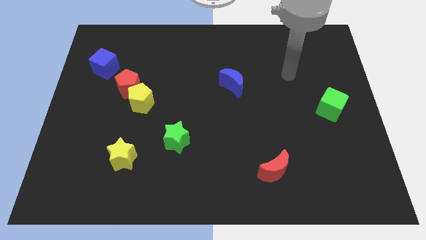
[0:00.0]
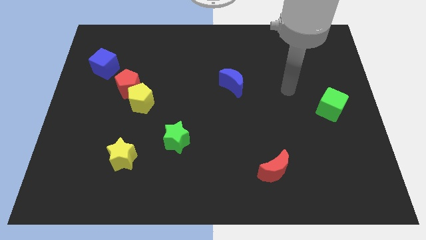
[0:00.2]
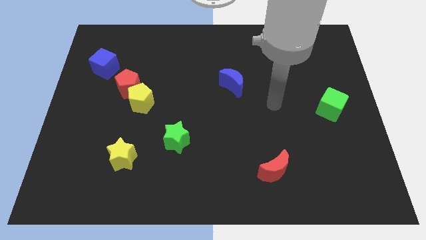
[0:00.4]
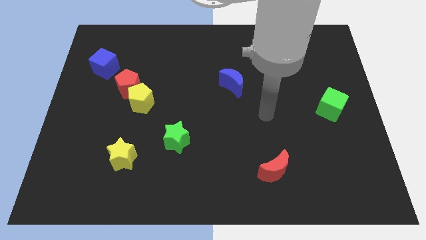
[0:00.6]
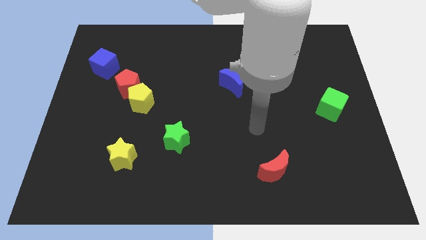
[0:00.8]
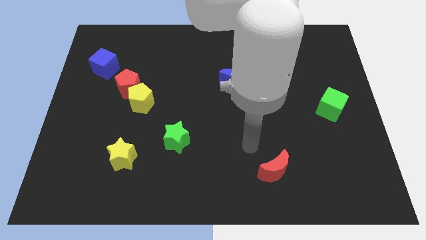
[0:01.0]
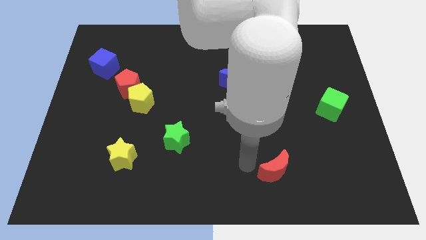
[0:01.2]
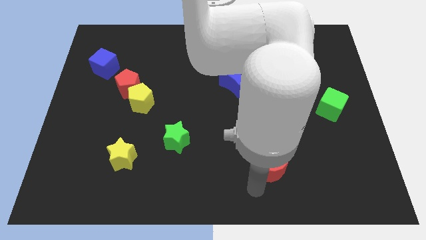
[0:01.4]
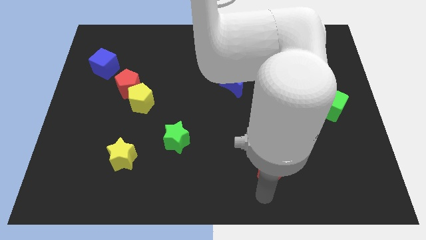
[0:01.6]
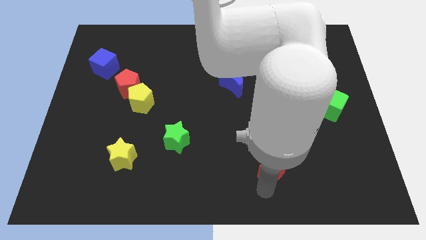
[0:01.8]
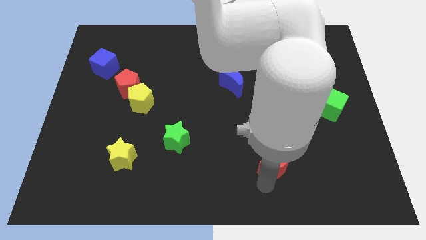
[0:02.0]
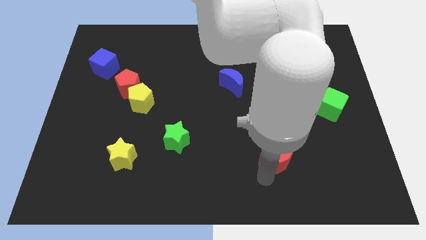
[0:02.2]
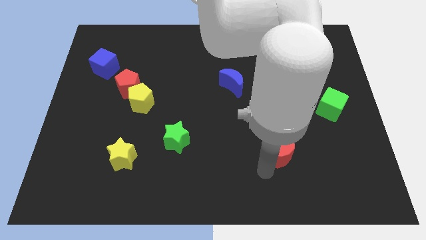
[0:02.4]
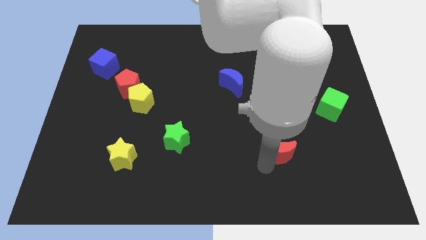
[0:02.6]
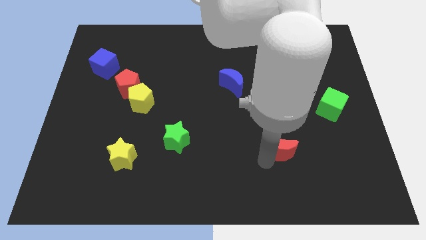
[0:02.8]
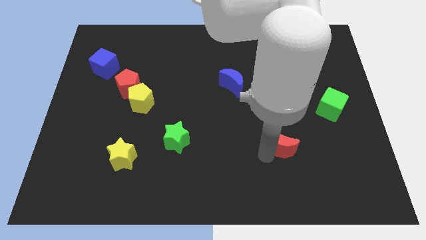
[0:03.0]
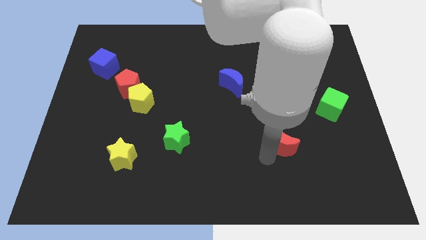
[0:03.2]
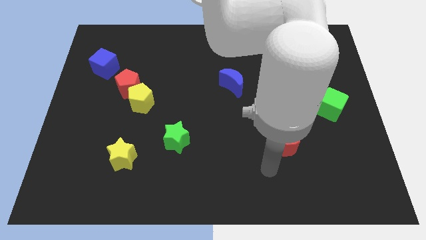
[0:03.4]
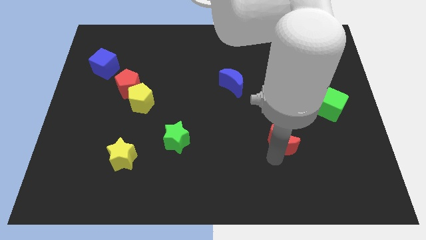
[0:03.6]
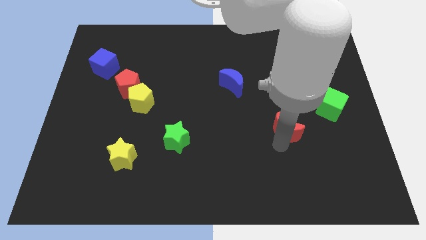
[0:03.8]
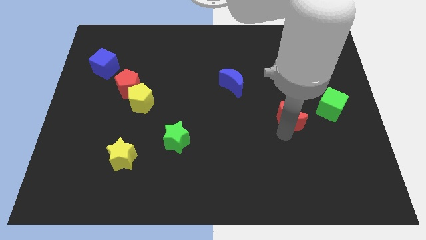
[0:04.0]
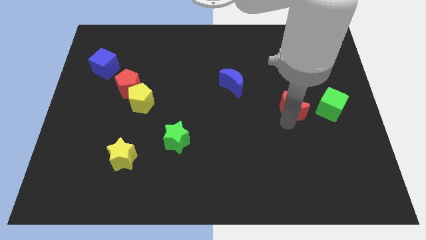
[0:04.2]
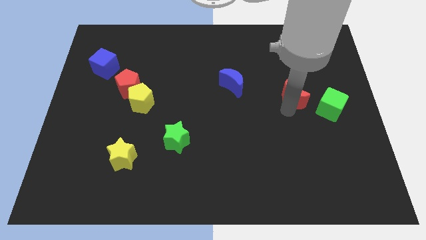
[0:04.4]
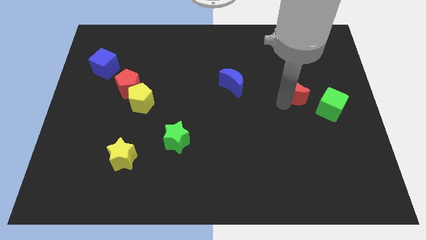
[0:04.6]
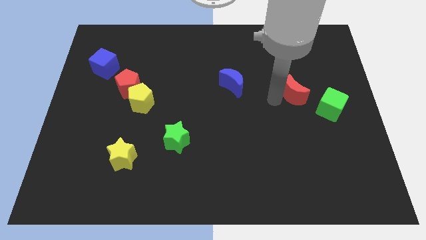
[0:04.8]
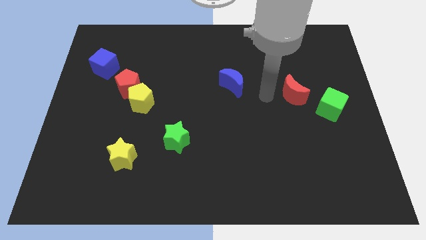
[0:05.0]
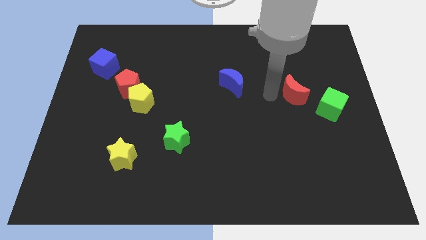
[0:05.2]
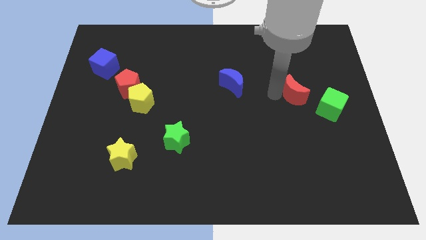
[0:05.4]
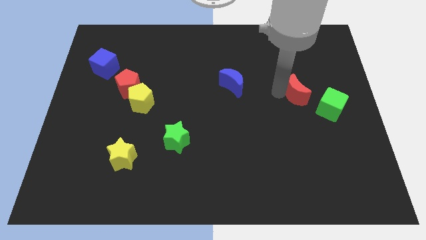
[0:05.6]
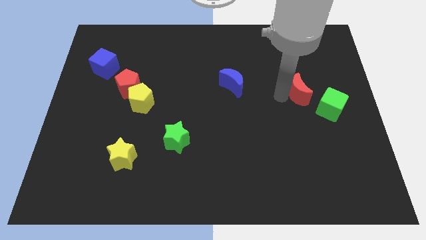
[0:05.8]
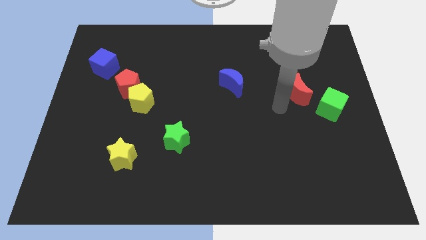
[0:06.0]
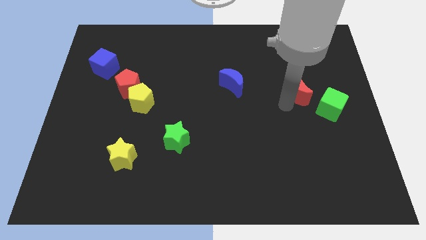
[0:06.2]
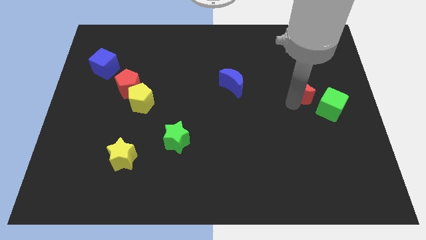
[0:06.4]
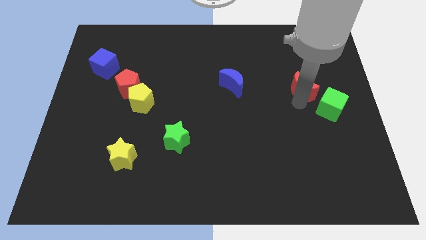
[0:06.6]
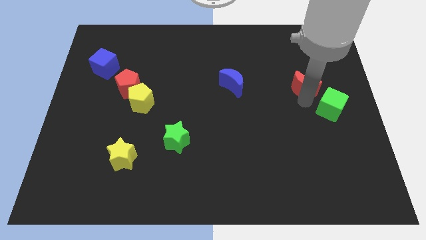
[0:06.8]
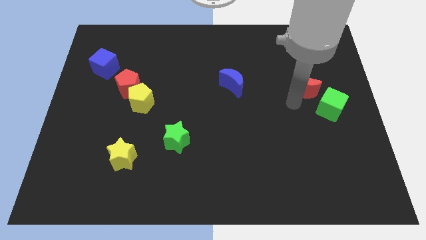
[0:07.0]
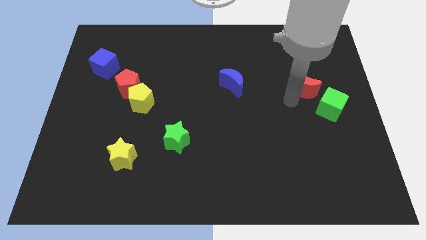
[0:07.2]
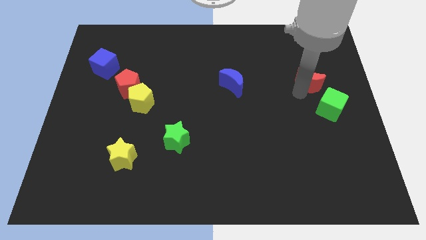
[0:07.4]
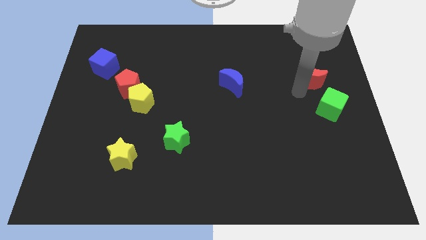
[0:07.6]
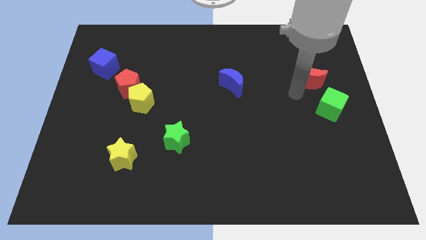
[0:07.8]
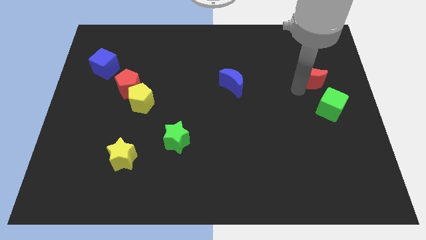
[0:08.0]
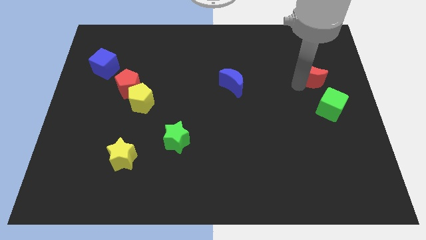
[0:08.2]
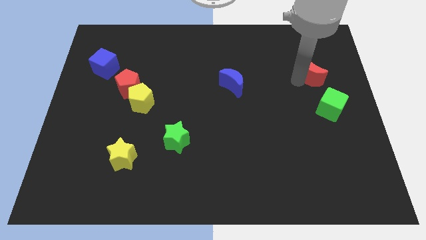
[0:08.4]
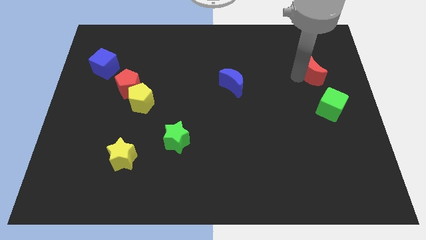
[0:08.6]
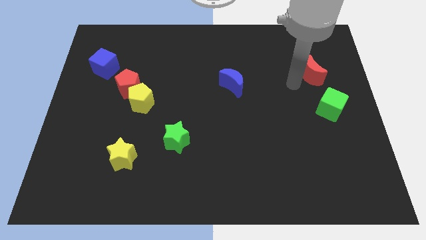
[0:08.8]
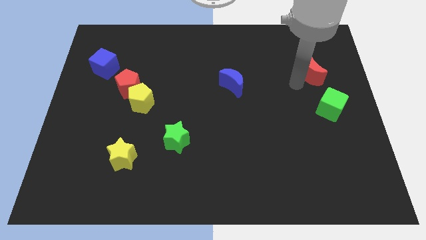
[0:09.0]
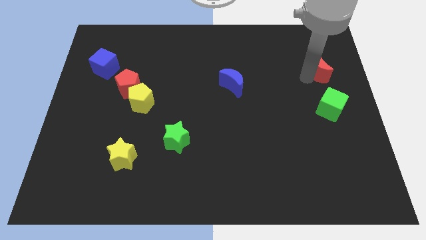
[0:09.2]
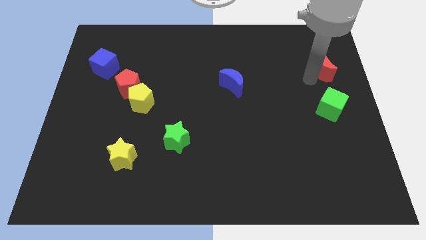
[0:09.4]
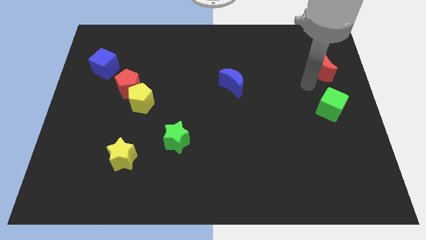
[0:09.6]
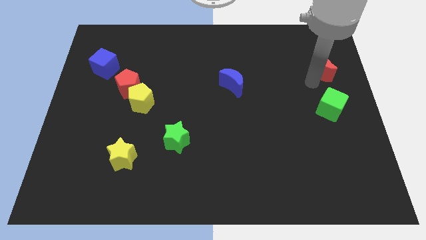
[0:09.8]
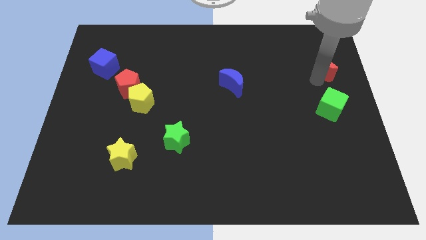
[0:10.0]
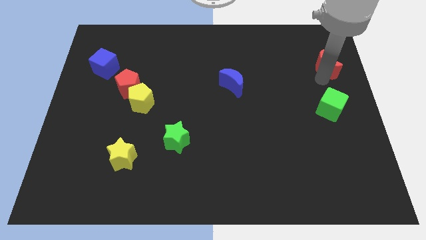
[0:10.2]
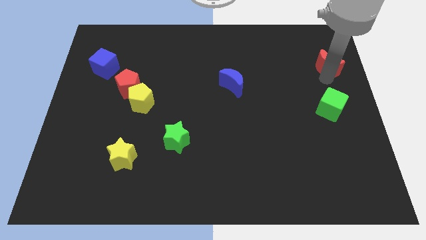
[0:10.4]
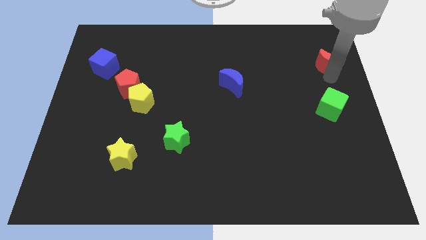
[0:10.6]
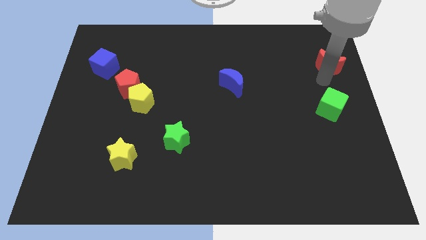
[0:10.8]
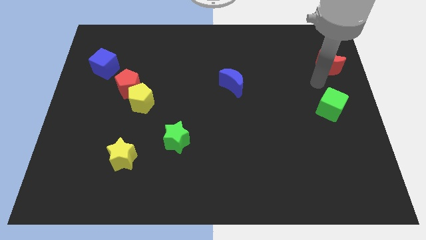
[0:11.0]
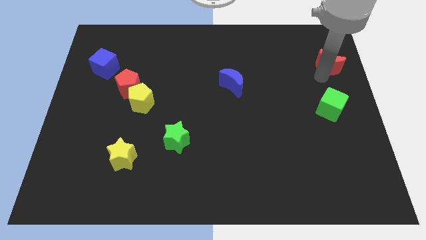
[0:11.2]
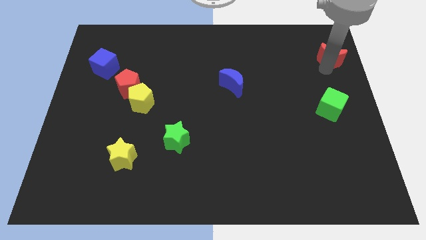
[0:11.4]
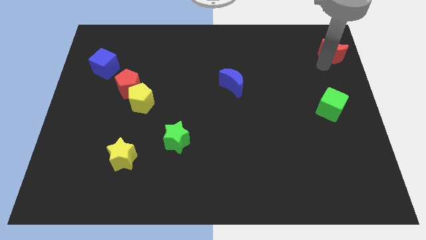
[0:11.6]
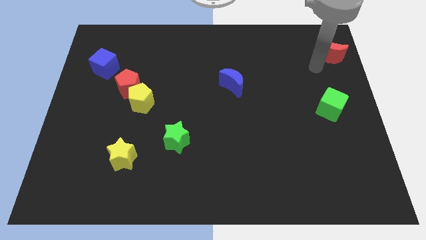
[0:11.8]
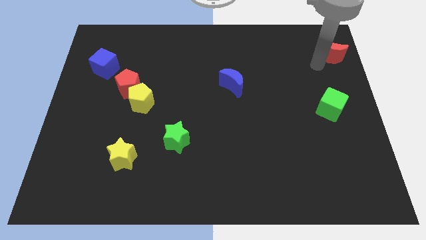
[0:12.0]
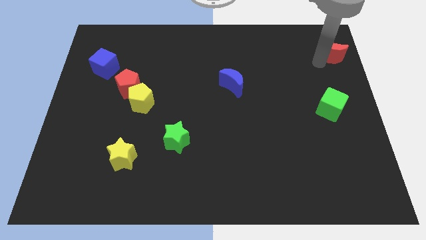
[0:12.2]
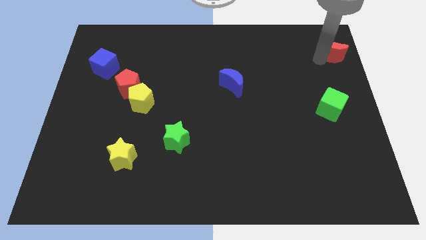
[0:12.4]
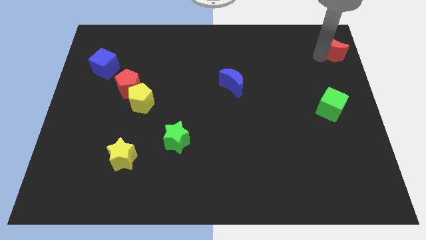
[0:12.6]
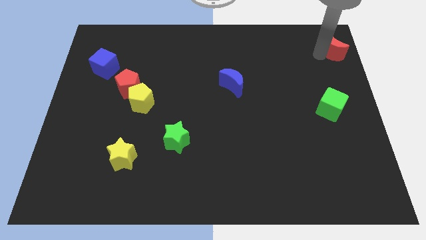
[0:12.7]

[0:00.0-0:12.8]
push the red moon to the top right corner
